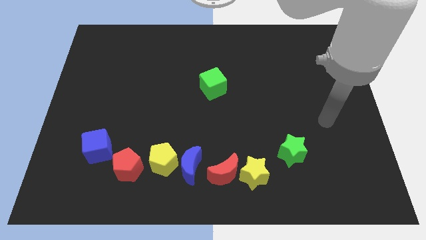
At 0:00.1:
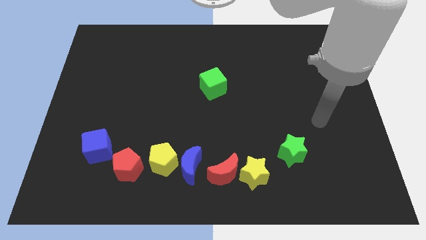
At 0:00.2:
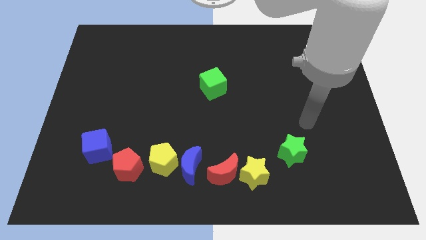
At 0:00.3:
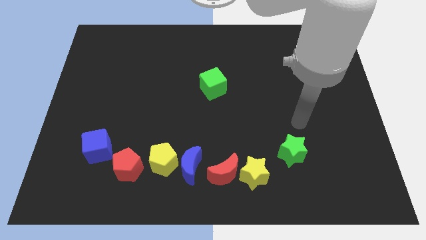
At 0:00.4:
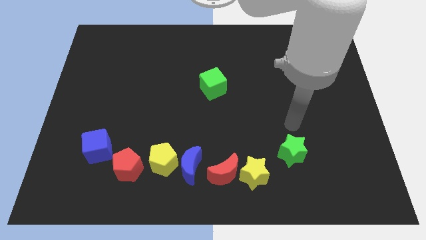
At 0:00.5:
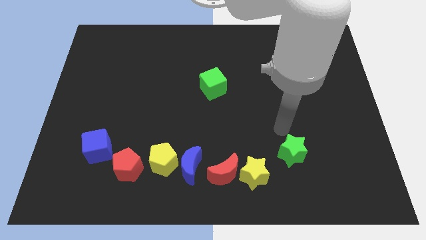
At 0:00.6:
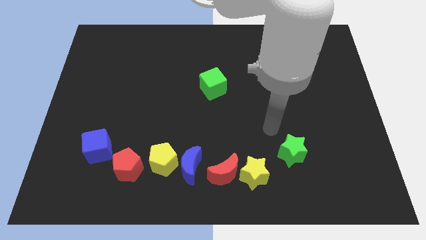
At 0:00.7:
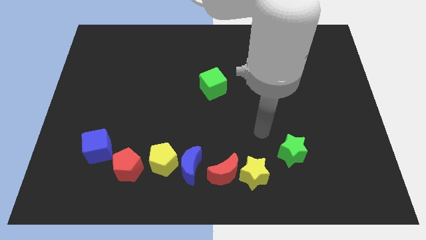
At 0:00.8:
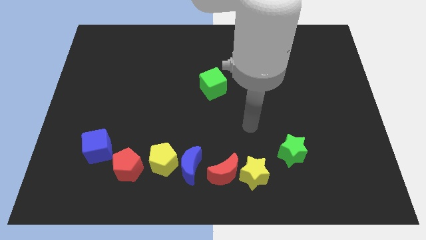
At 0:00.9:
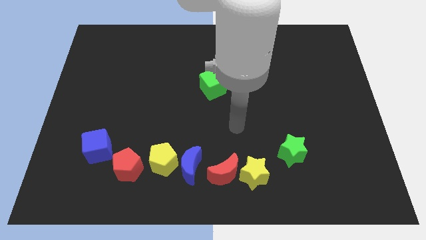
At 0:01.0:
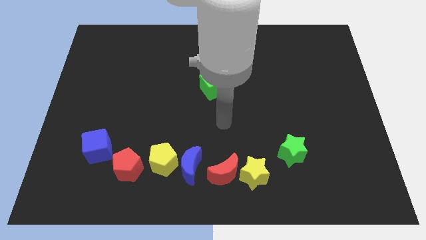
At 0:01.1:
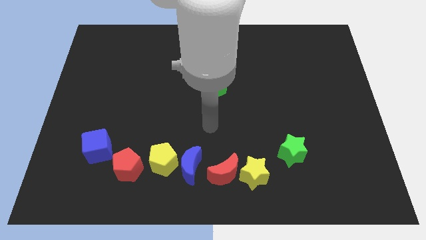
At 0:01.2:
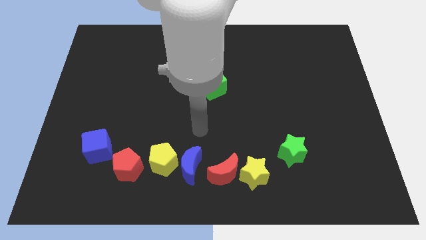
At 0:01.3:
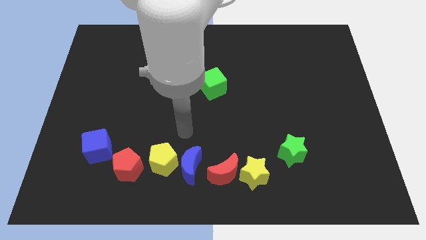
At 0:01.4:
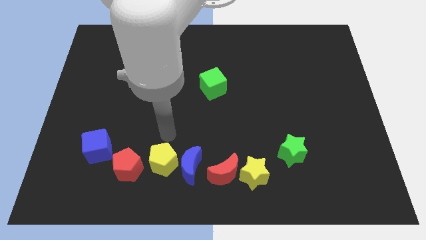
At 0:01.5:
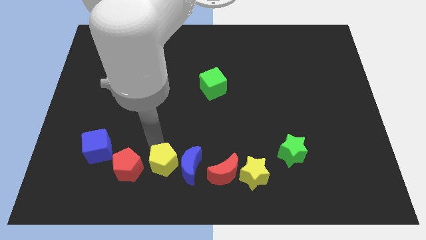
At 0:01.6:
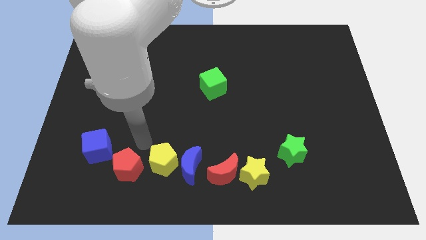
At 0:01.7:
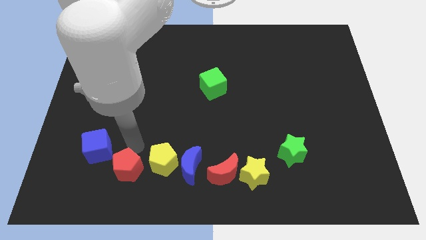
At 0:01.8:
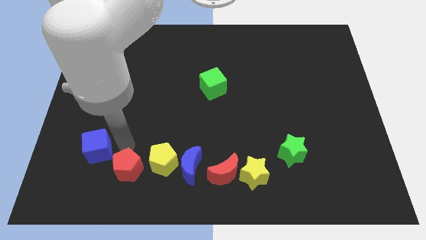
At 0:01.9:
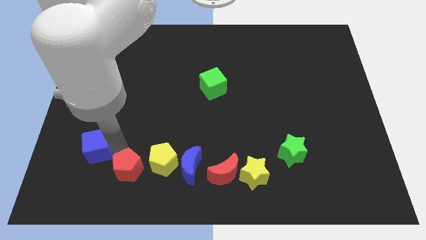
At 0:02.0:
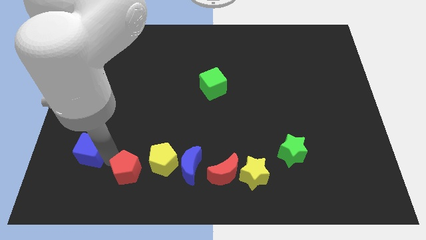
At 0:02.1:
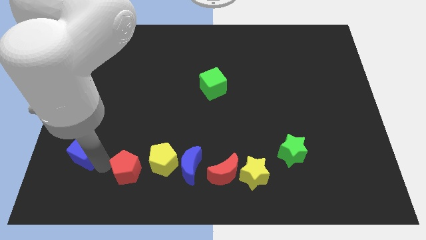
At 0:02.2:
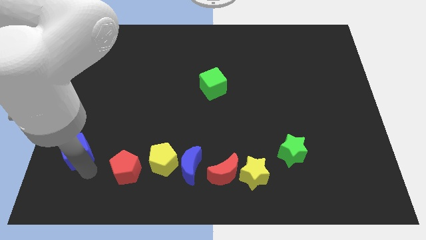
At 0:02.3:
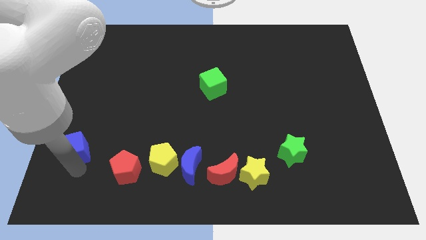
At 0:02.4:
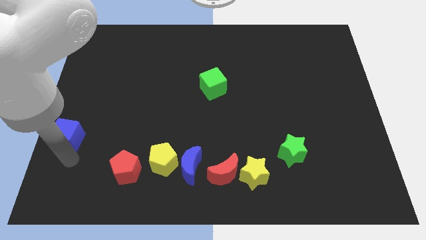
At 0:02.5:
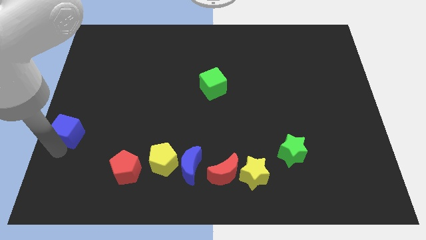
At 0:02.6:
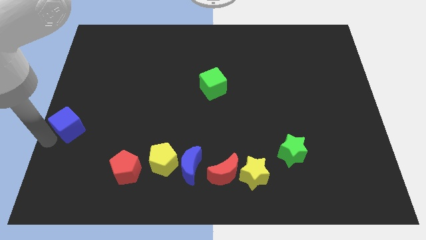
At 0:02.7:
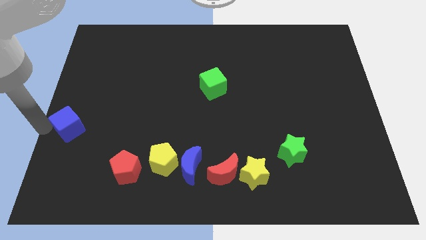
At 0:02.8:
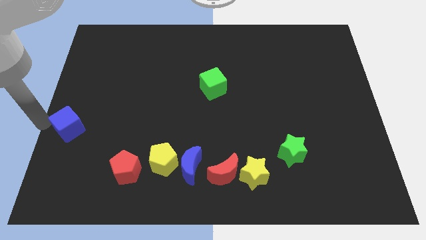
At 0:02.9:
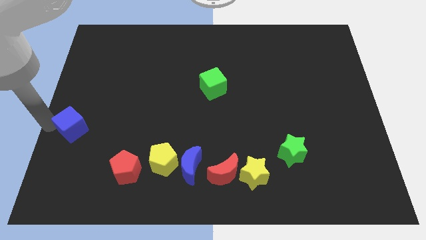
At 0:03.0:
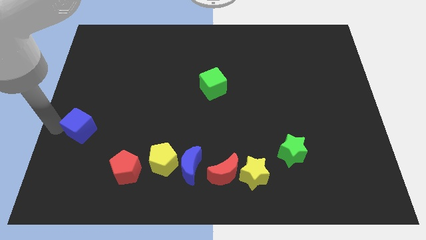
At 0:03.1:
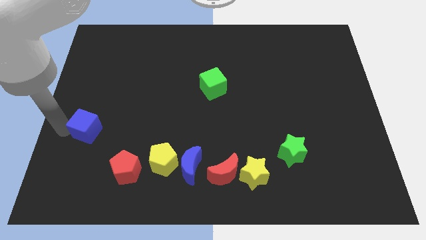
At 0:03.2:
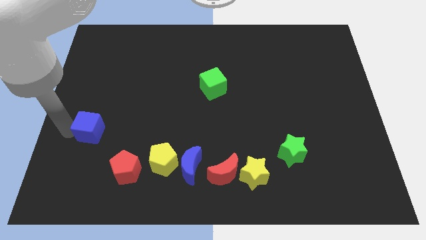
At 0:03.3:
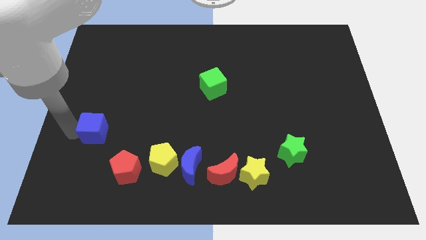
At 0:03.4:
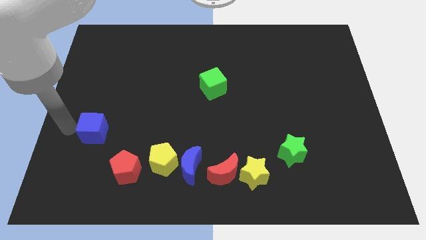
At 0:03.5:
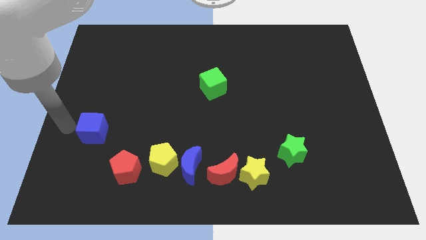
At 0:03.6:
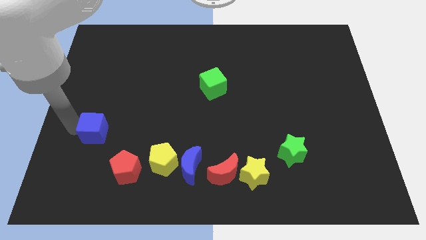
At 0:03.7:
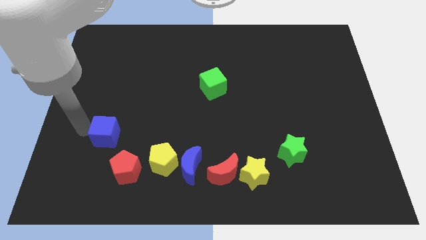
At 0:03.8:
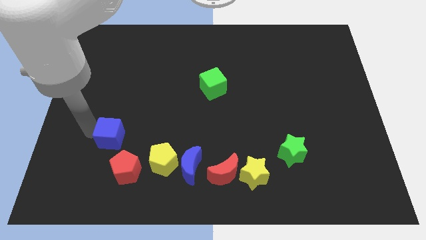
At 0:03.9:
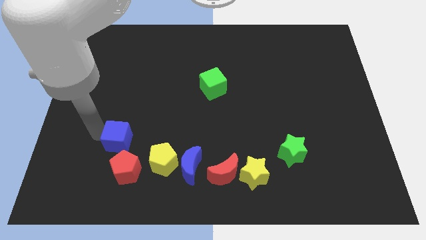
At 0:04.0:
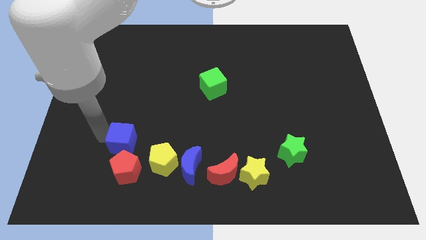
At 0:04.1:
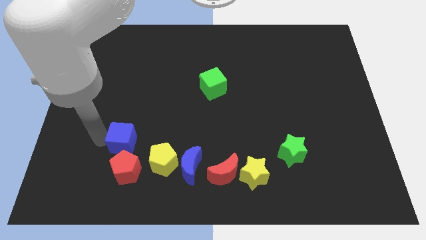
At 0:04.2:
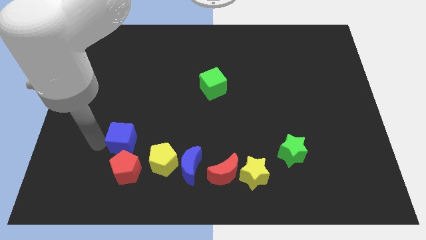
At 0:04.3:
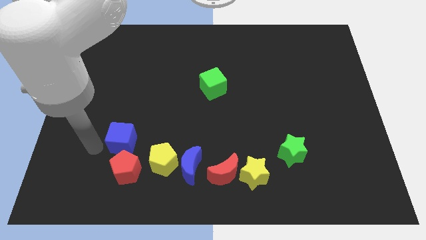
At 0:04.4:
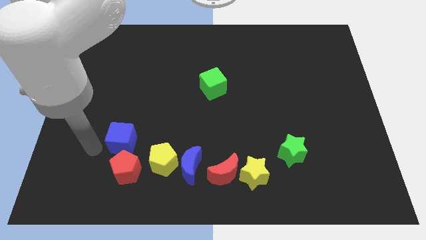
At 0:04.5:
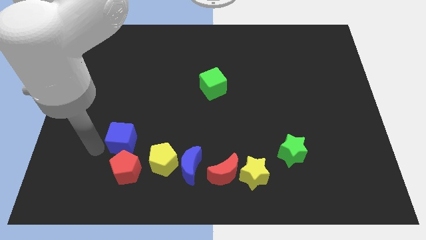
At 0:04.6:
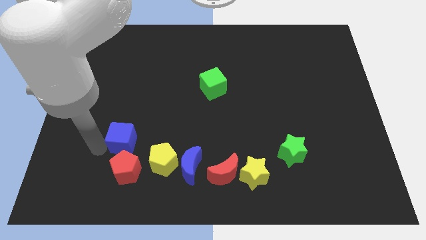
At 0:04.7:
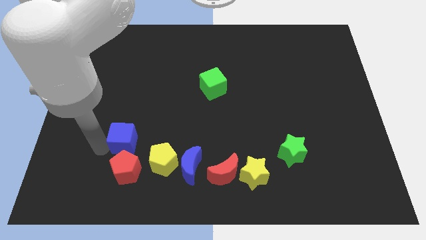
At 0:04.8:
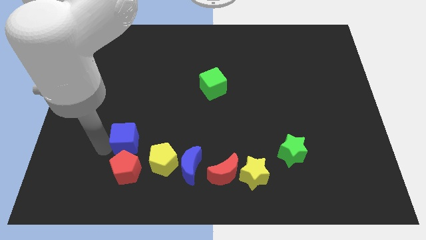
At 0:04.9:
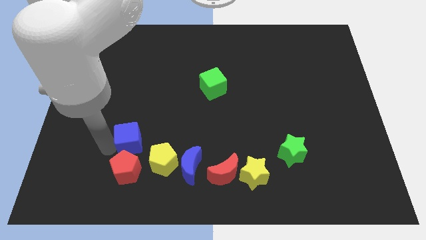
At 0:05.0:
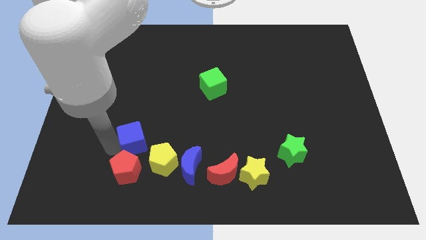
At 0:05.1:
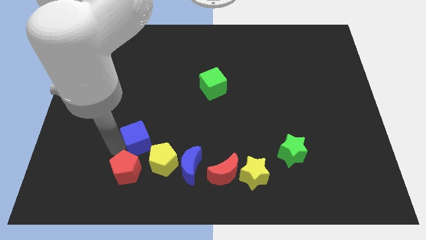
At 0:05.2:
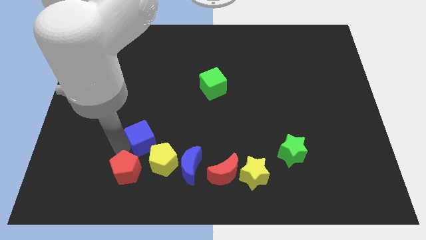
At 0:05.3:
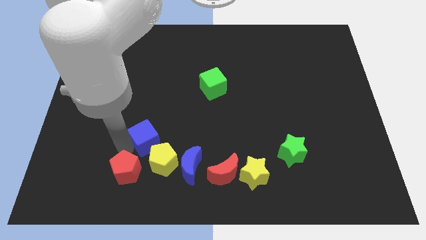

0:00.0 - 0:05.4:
move the blue cube above the yellow pentagon

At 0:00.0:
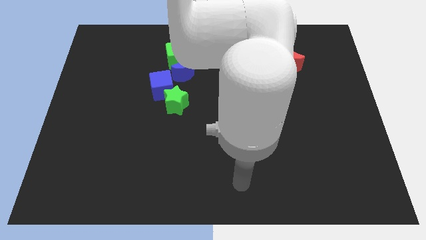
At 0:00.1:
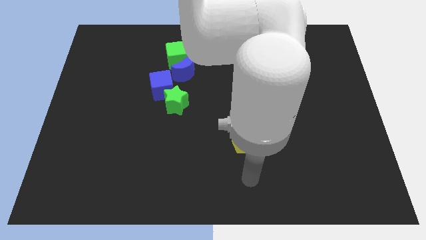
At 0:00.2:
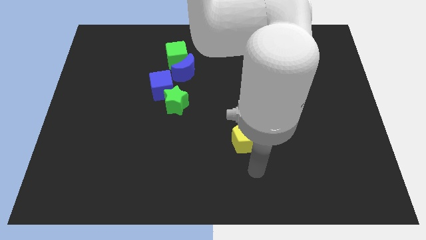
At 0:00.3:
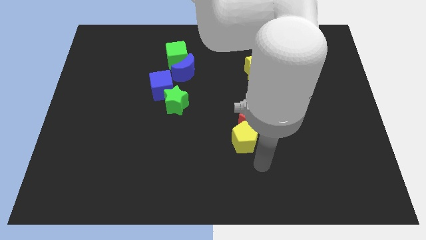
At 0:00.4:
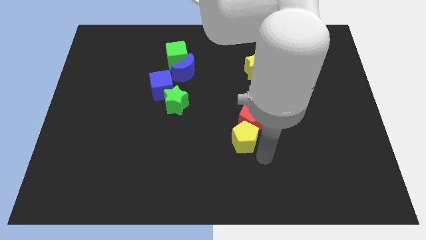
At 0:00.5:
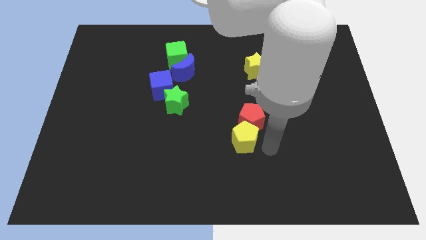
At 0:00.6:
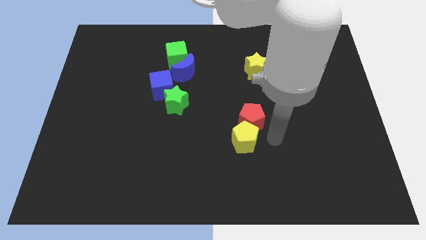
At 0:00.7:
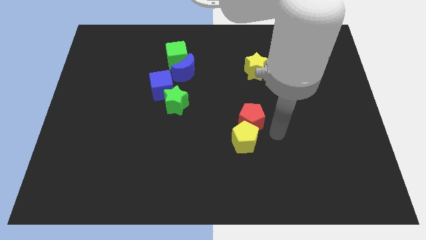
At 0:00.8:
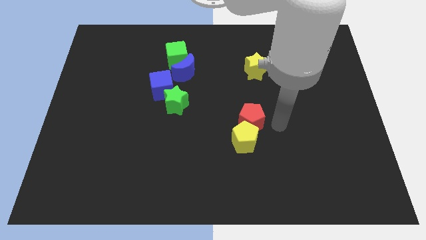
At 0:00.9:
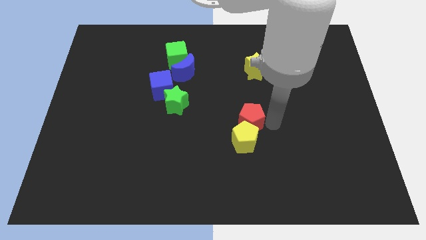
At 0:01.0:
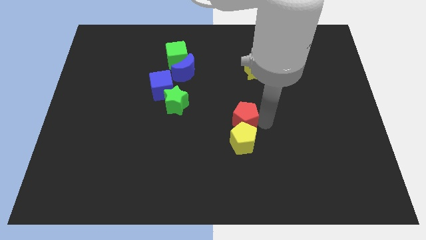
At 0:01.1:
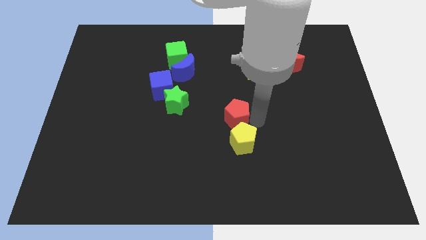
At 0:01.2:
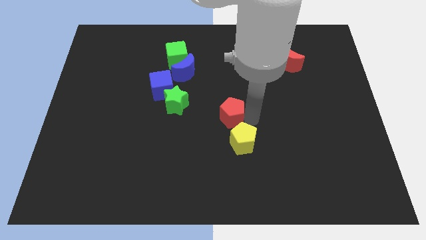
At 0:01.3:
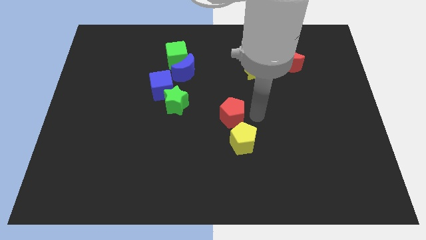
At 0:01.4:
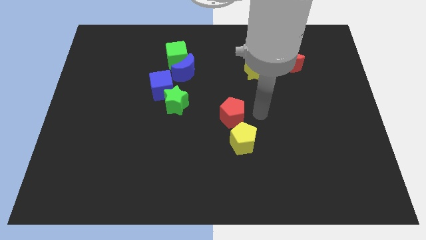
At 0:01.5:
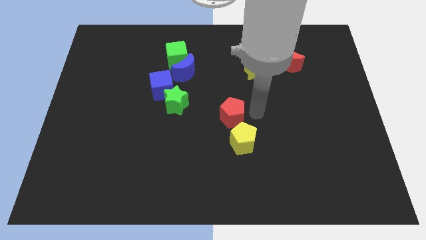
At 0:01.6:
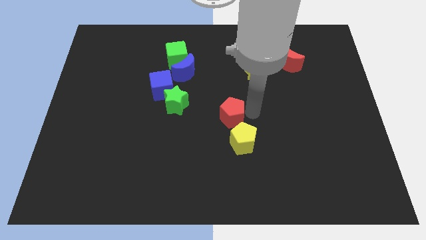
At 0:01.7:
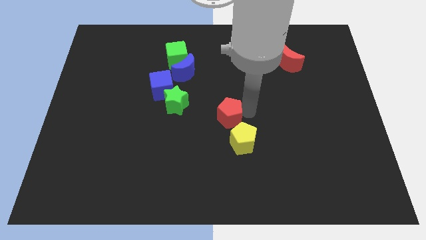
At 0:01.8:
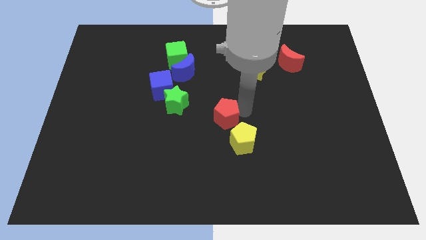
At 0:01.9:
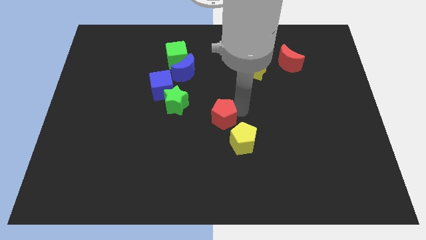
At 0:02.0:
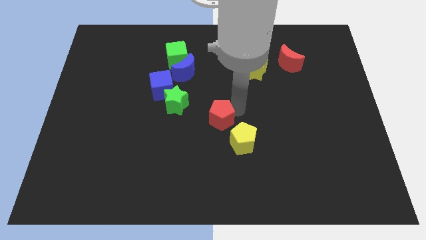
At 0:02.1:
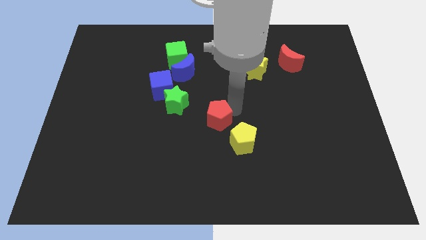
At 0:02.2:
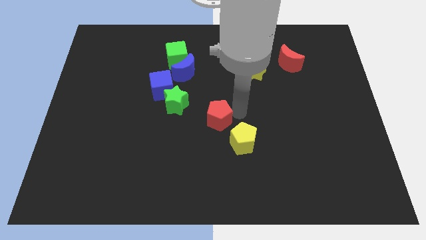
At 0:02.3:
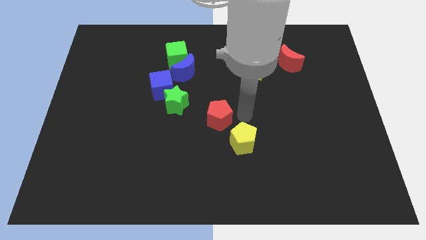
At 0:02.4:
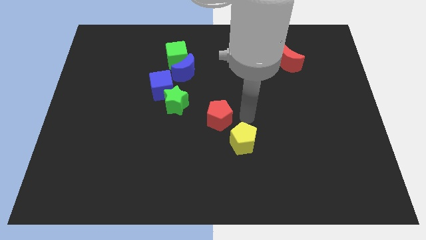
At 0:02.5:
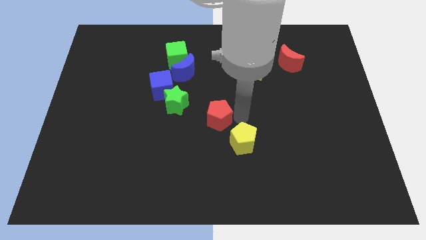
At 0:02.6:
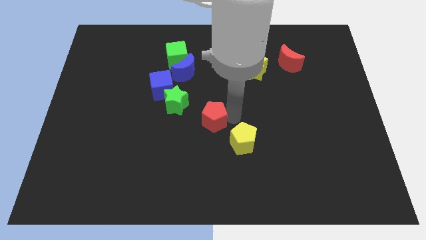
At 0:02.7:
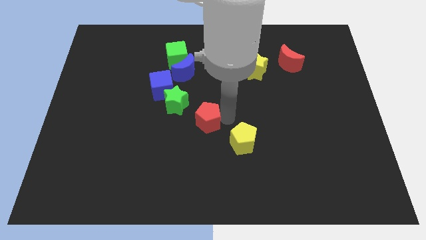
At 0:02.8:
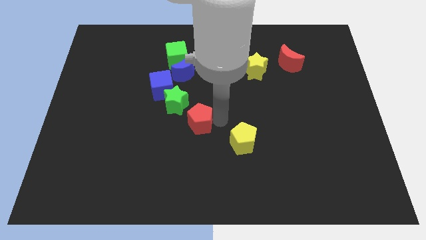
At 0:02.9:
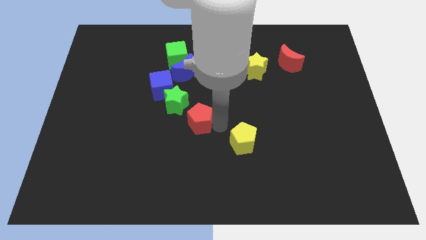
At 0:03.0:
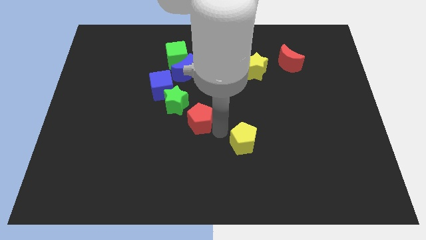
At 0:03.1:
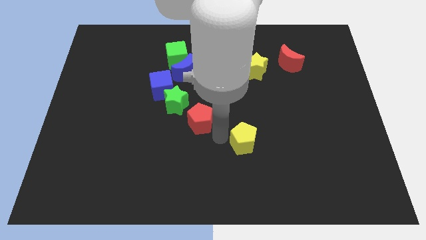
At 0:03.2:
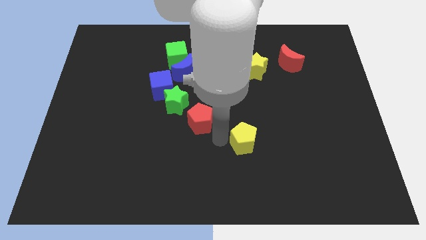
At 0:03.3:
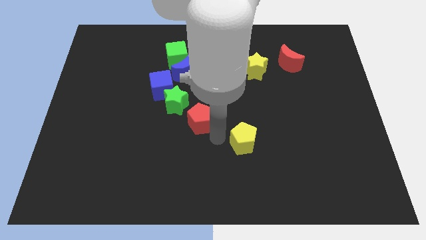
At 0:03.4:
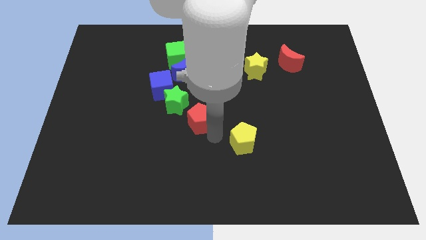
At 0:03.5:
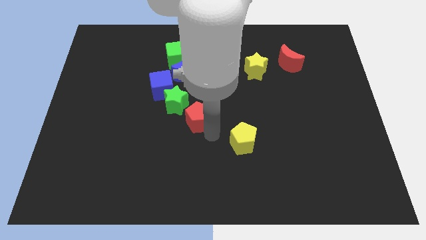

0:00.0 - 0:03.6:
put the red pentagon below the blue moon
